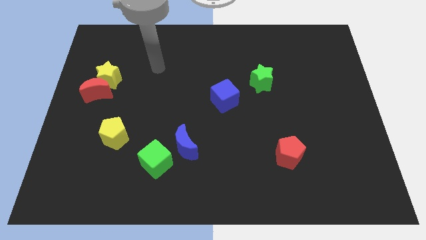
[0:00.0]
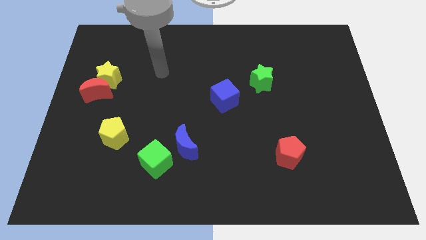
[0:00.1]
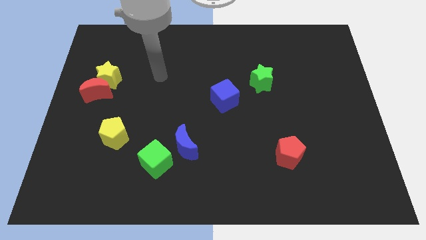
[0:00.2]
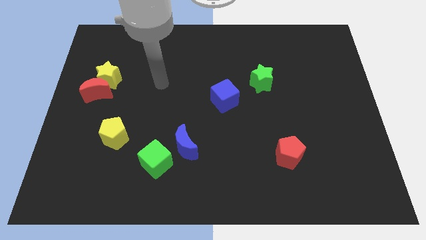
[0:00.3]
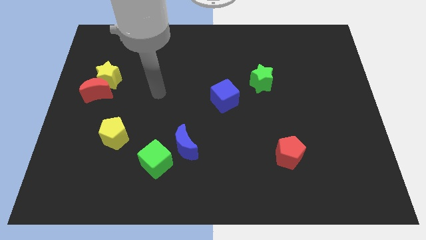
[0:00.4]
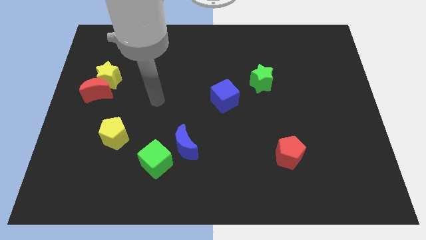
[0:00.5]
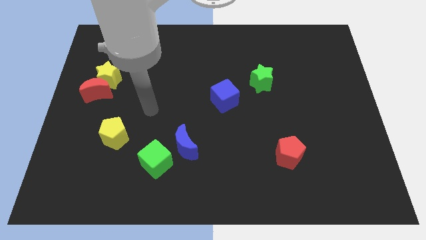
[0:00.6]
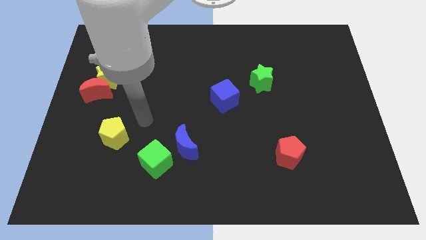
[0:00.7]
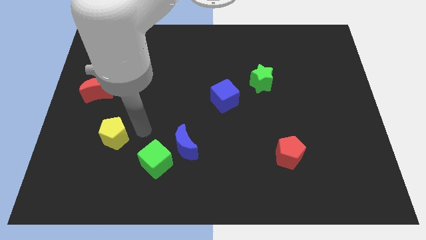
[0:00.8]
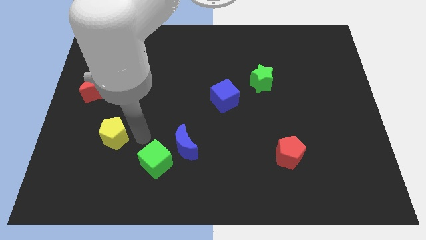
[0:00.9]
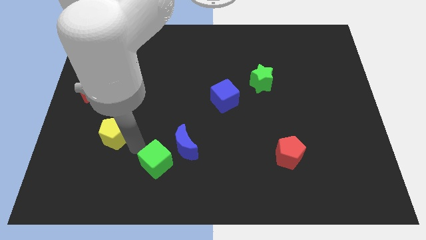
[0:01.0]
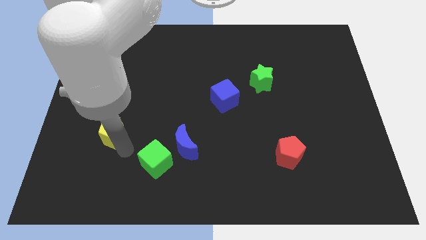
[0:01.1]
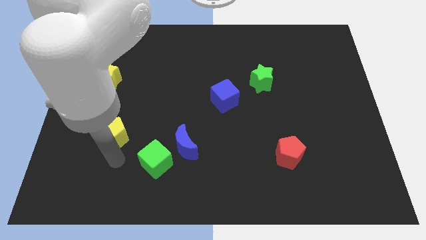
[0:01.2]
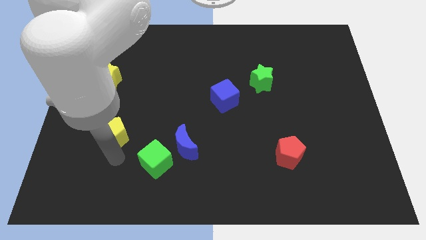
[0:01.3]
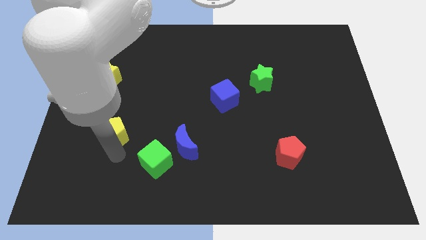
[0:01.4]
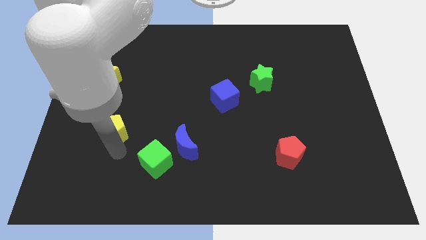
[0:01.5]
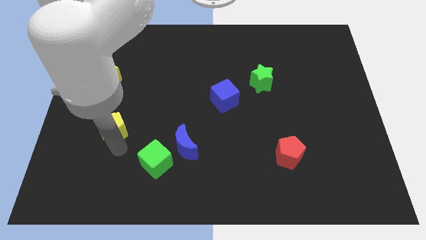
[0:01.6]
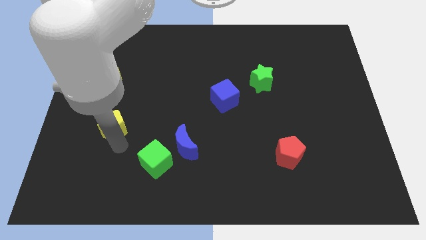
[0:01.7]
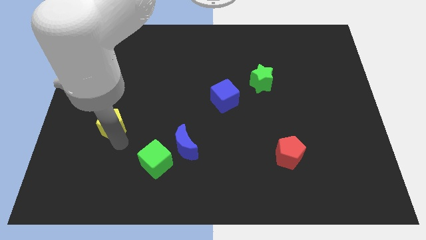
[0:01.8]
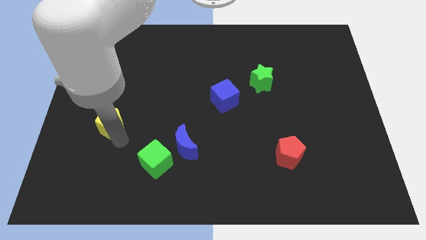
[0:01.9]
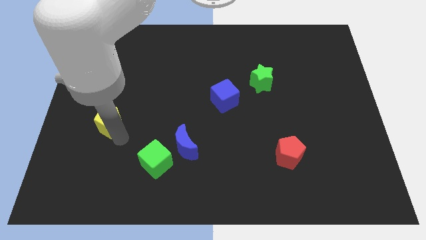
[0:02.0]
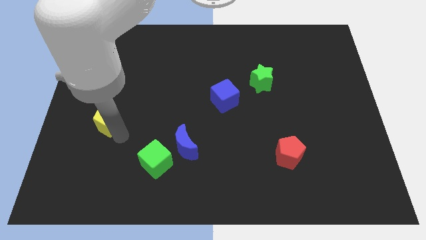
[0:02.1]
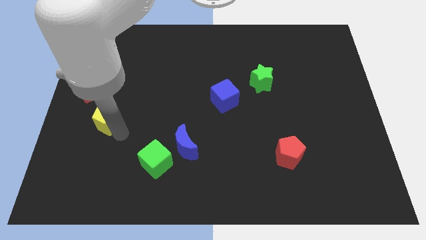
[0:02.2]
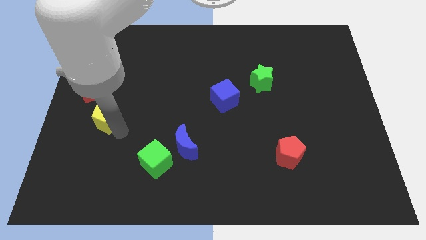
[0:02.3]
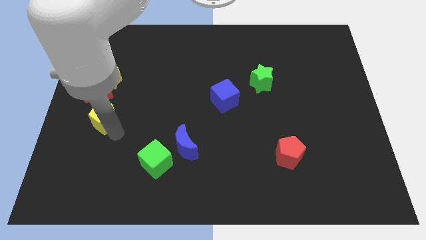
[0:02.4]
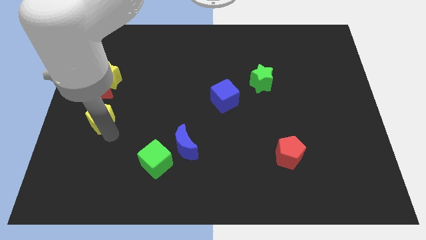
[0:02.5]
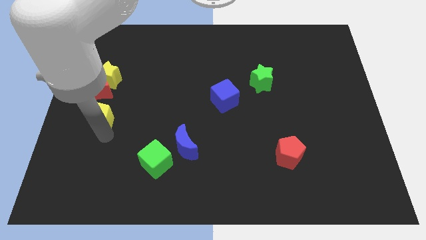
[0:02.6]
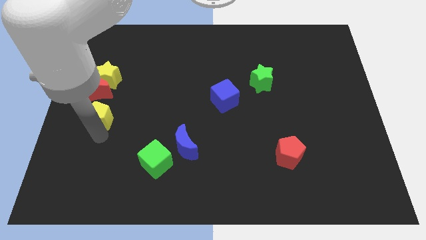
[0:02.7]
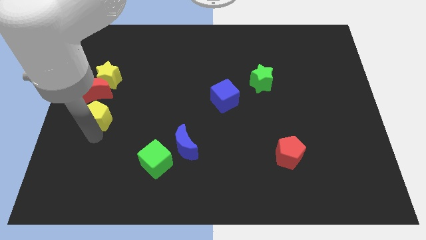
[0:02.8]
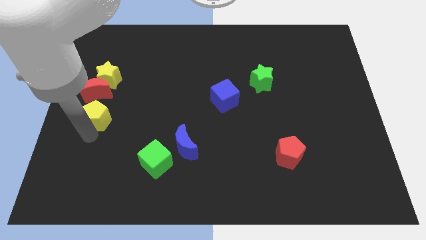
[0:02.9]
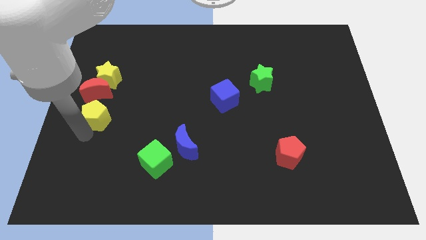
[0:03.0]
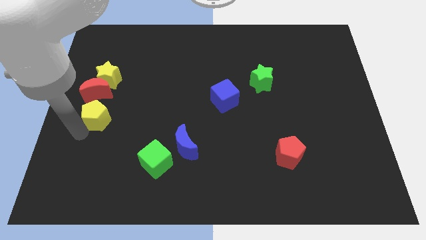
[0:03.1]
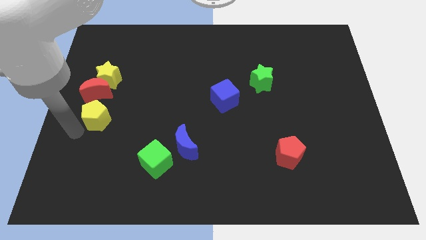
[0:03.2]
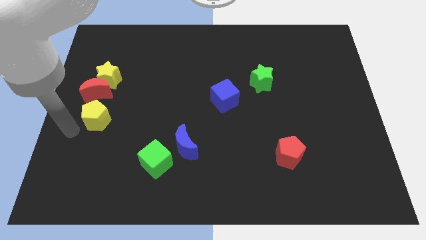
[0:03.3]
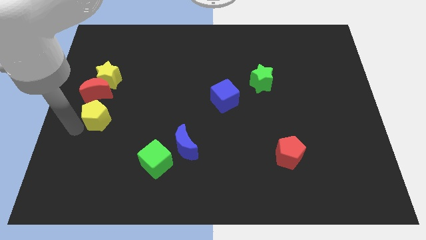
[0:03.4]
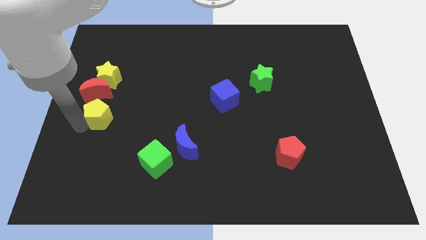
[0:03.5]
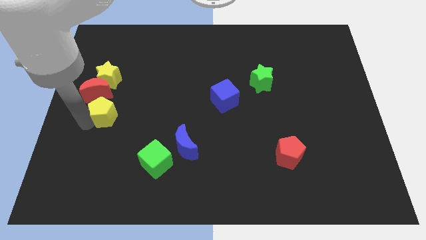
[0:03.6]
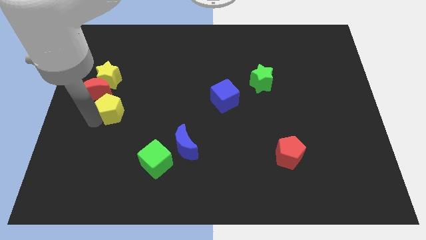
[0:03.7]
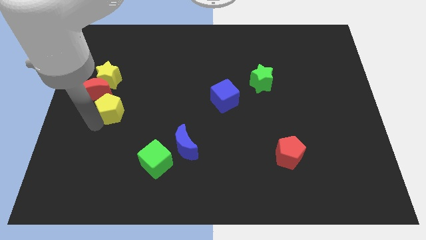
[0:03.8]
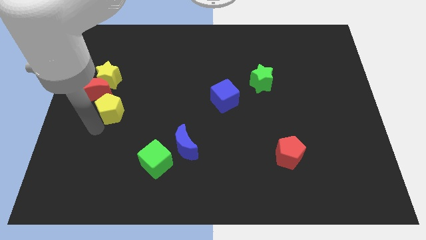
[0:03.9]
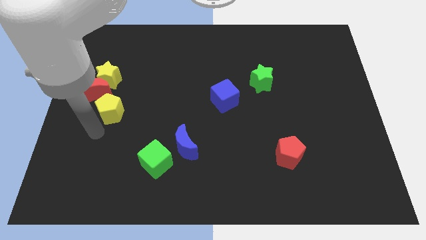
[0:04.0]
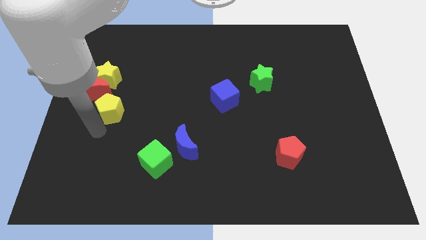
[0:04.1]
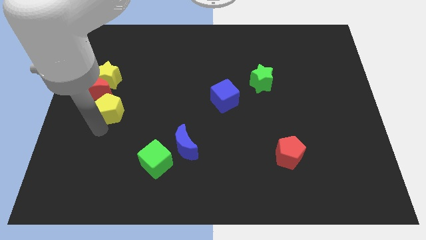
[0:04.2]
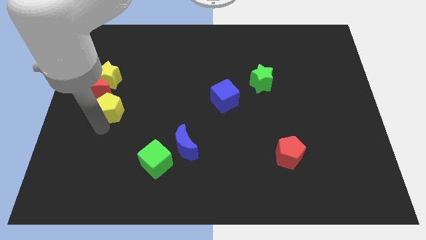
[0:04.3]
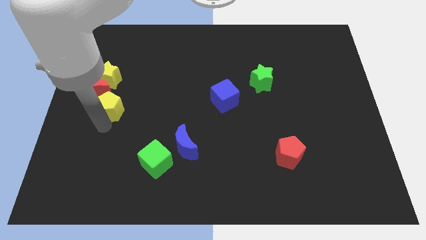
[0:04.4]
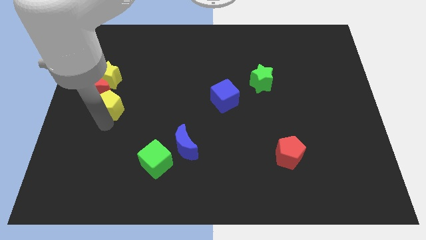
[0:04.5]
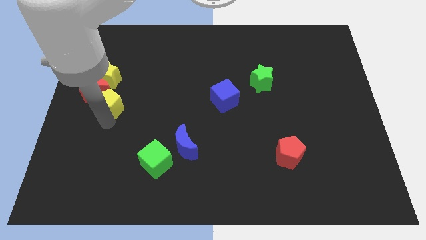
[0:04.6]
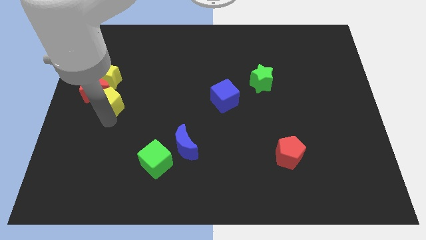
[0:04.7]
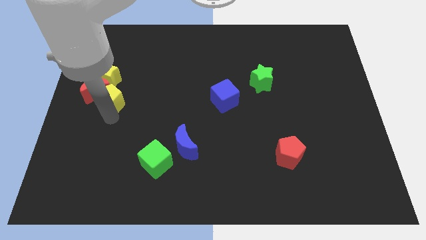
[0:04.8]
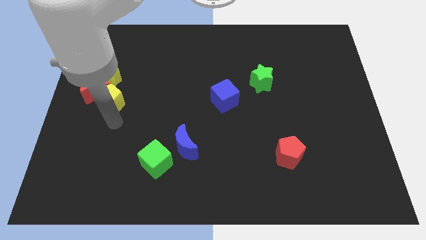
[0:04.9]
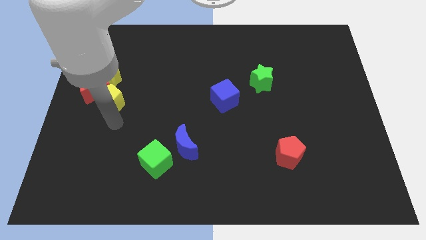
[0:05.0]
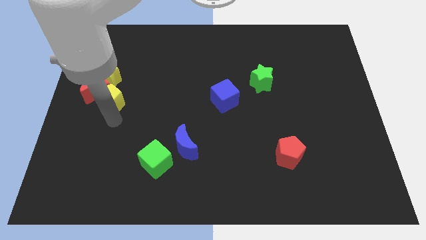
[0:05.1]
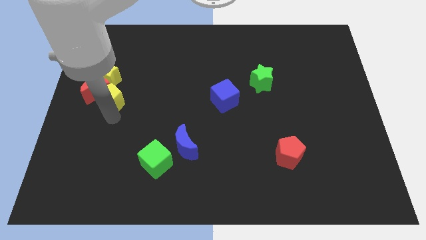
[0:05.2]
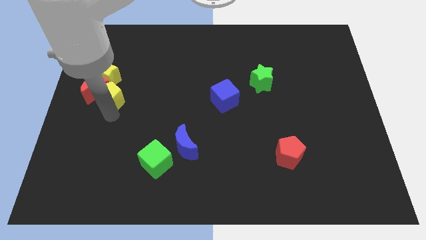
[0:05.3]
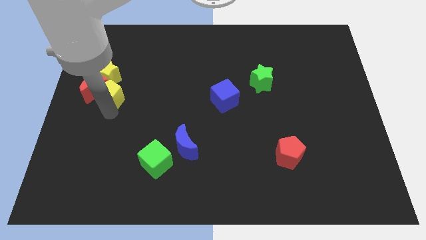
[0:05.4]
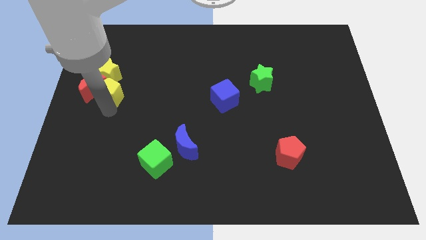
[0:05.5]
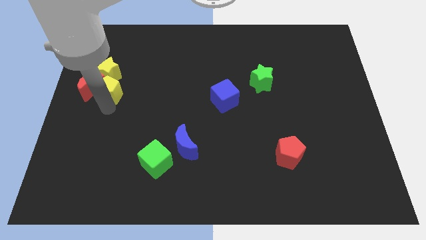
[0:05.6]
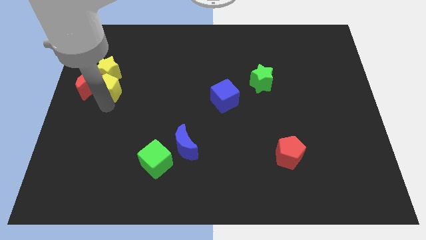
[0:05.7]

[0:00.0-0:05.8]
push the yellow pentagon to the yellow star

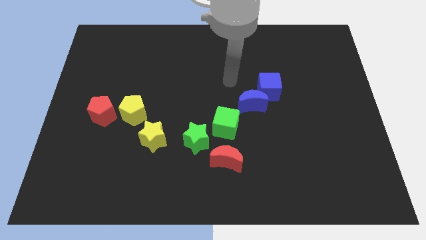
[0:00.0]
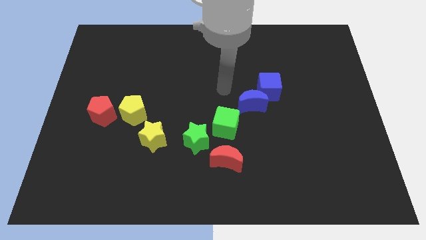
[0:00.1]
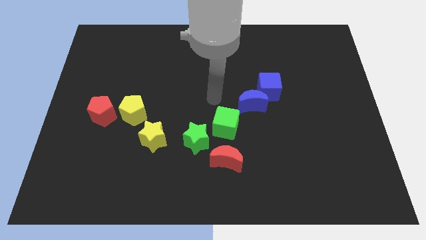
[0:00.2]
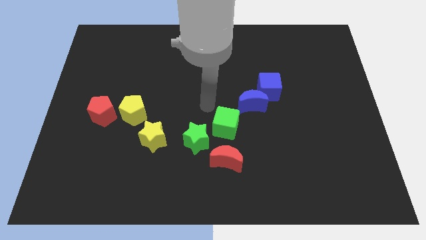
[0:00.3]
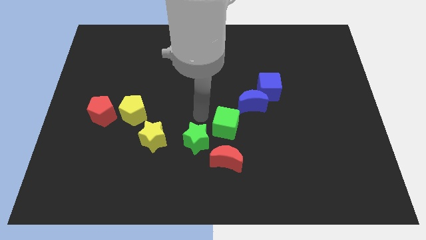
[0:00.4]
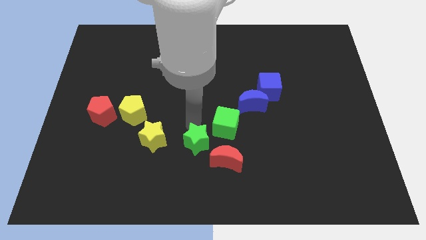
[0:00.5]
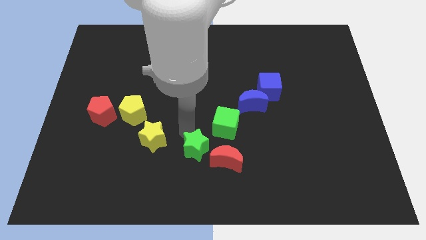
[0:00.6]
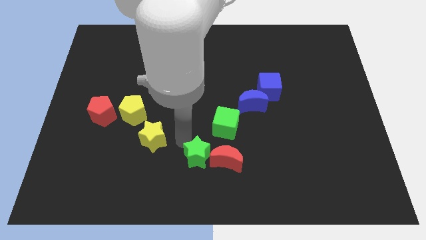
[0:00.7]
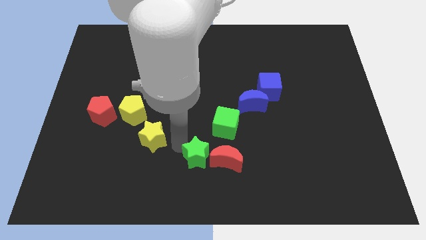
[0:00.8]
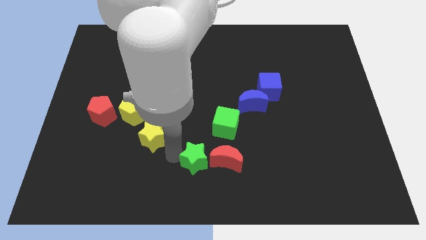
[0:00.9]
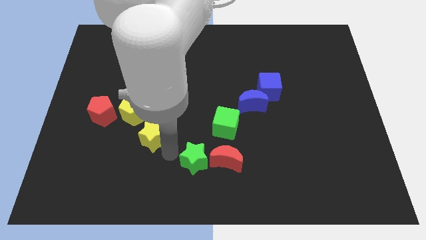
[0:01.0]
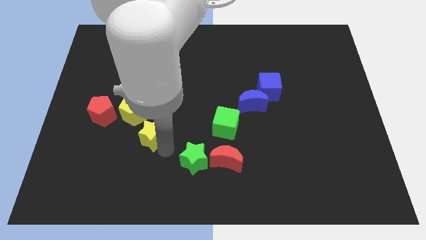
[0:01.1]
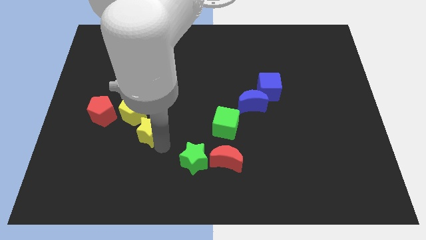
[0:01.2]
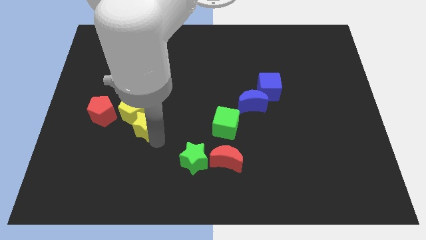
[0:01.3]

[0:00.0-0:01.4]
slide the yellow star close to the yellow pentagon

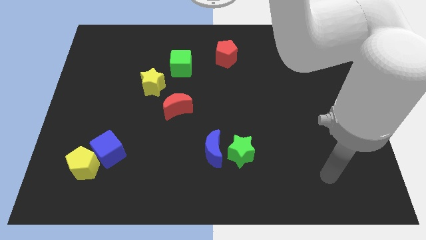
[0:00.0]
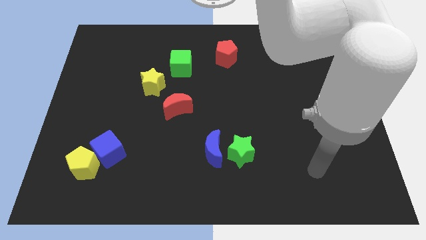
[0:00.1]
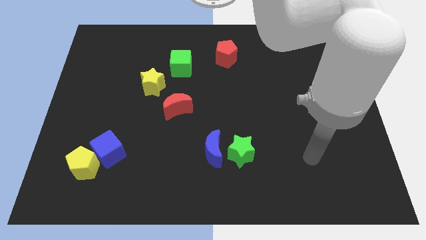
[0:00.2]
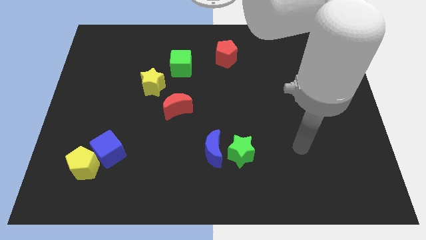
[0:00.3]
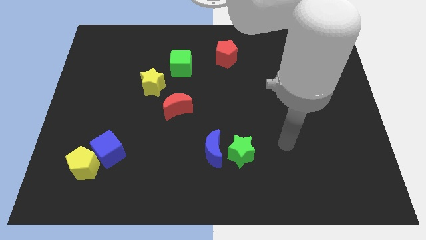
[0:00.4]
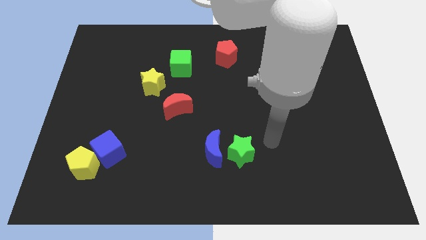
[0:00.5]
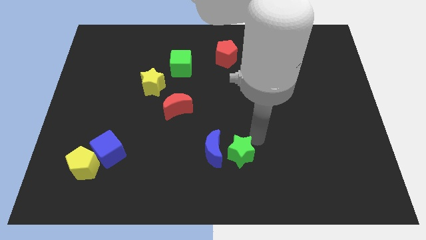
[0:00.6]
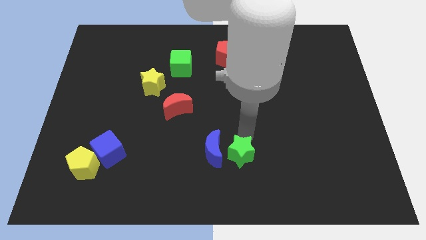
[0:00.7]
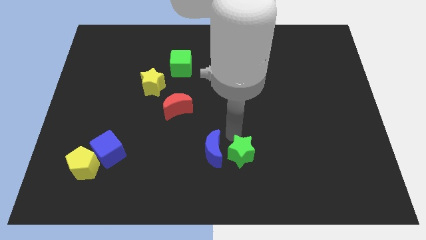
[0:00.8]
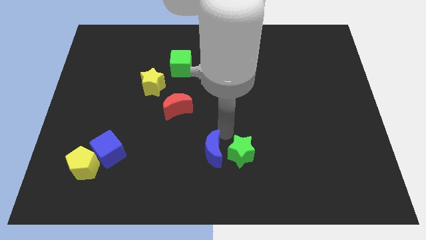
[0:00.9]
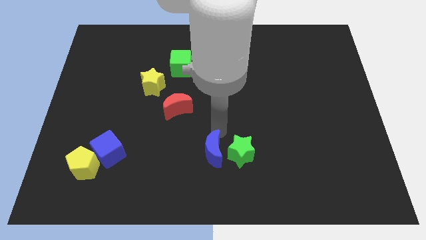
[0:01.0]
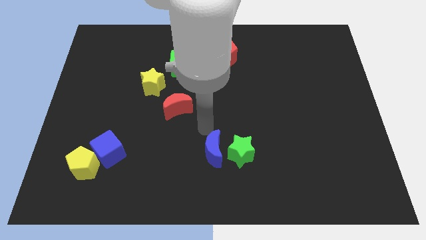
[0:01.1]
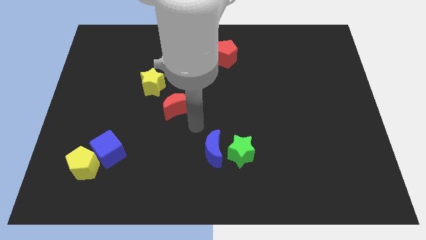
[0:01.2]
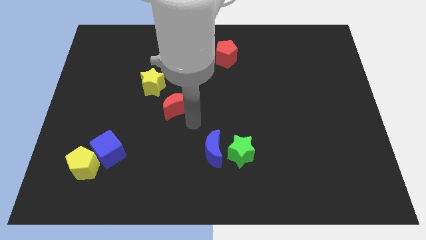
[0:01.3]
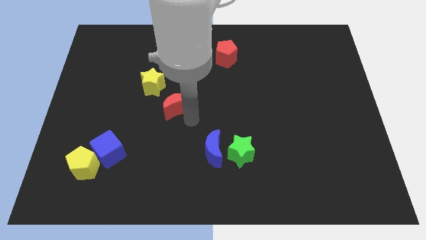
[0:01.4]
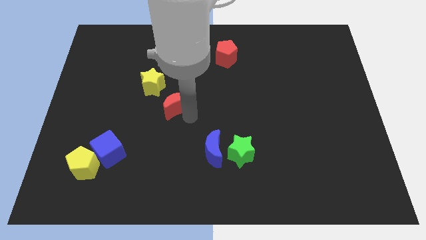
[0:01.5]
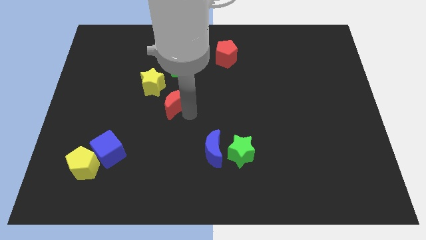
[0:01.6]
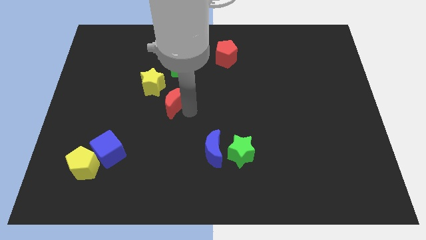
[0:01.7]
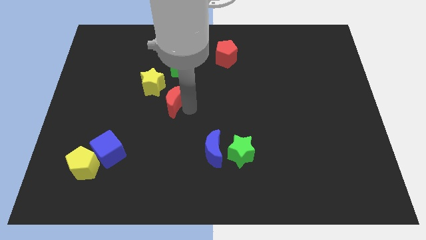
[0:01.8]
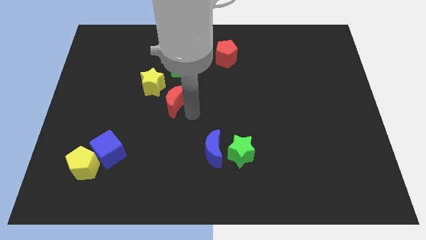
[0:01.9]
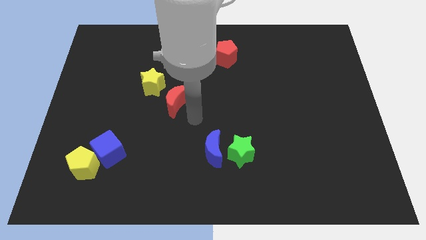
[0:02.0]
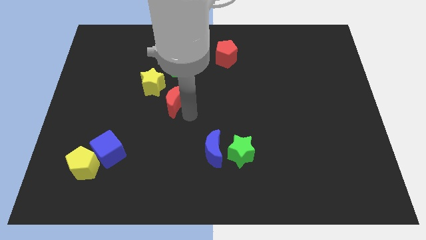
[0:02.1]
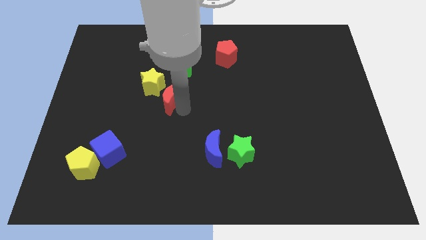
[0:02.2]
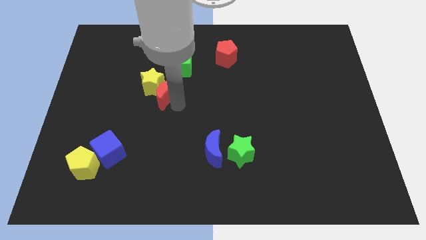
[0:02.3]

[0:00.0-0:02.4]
move the red moon towards the yellow star
